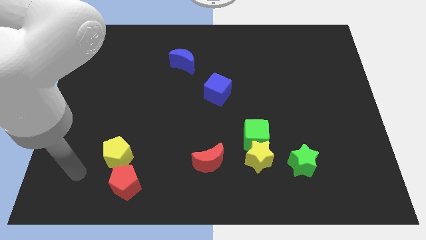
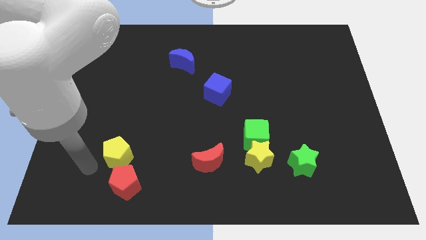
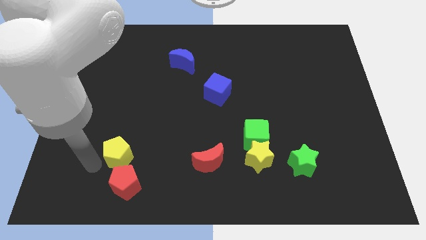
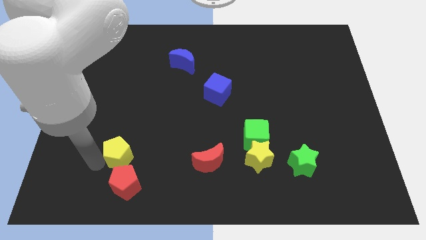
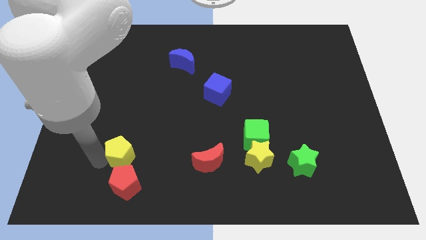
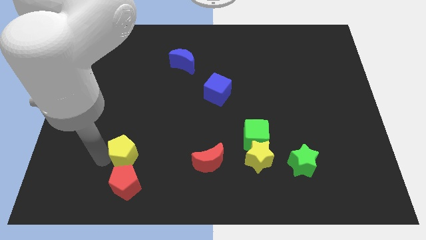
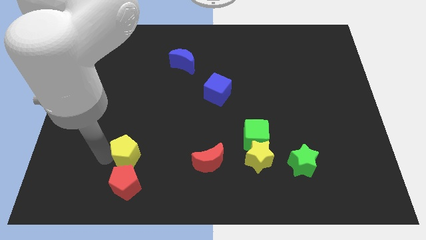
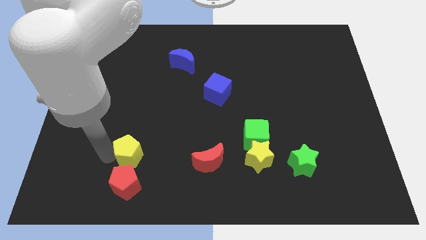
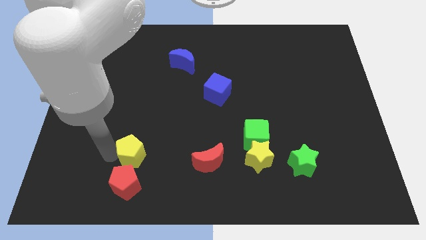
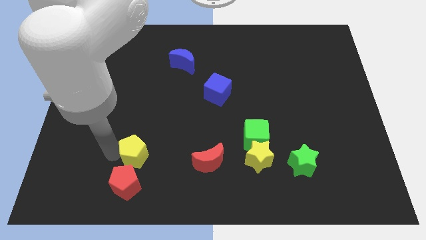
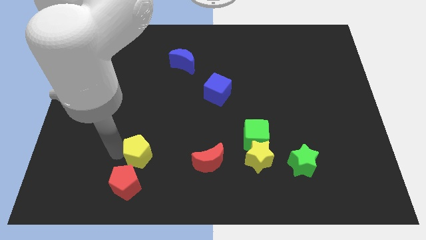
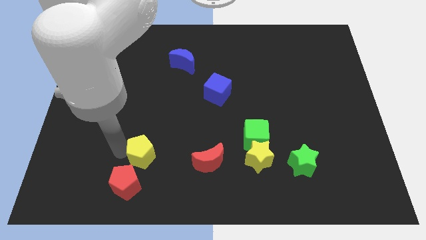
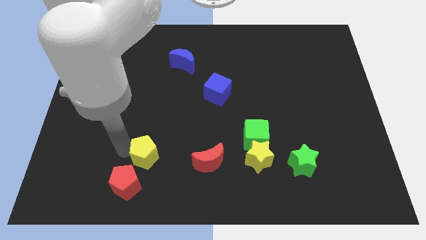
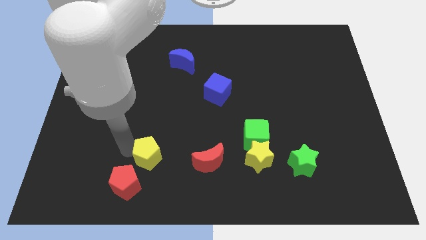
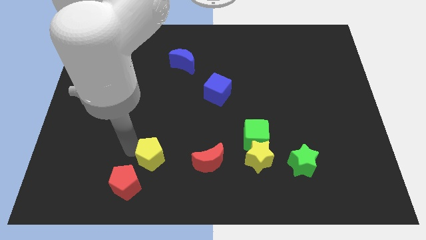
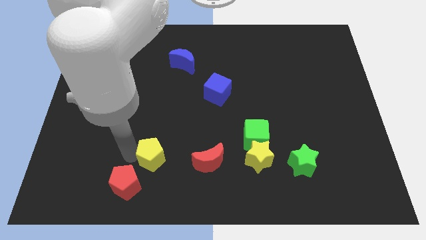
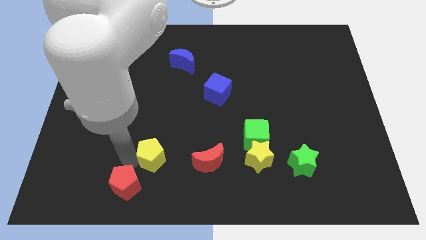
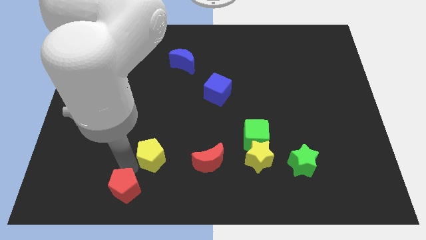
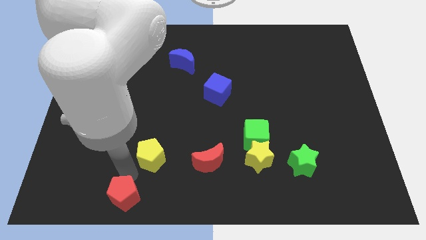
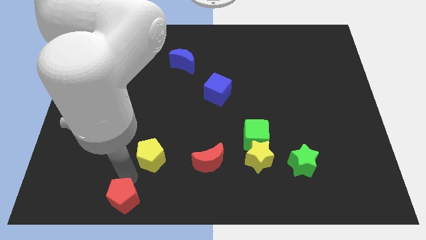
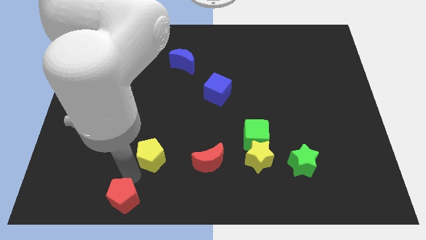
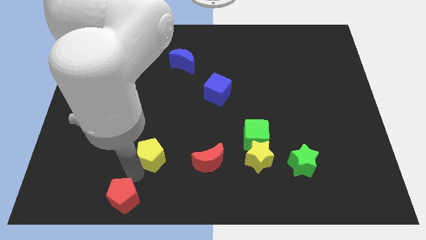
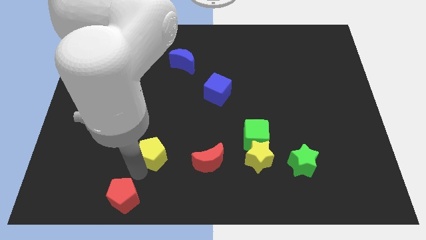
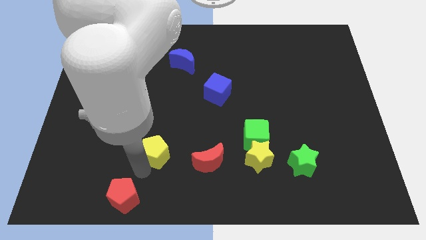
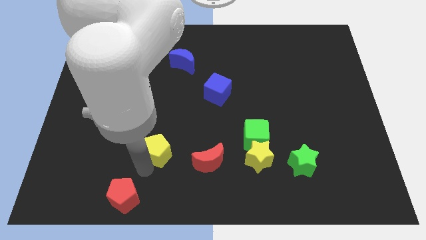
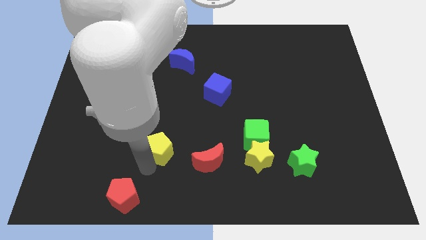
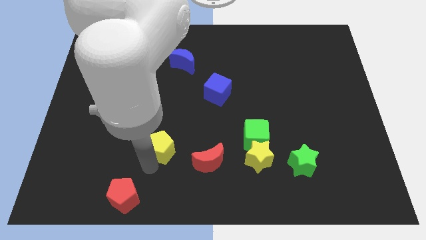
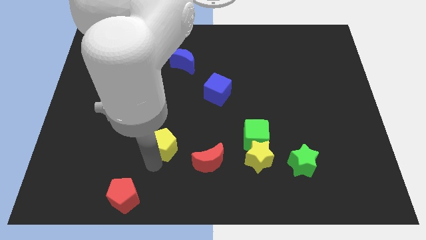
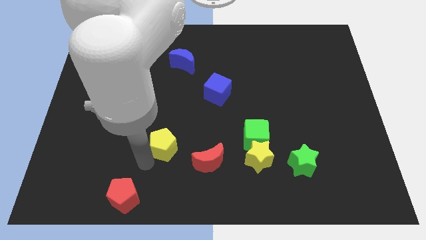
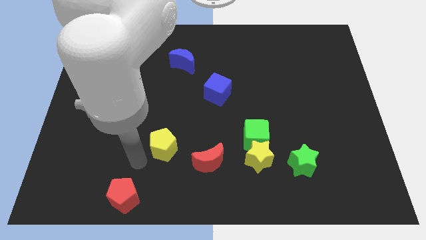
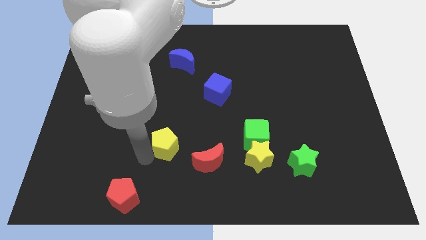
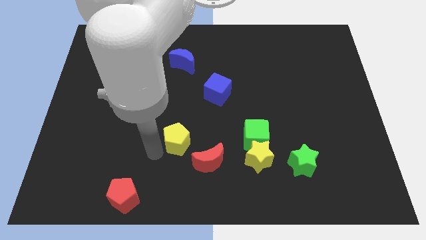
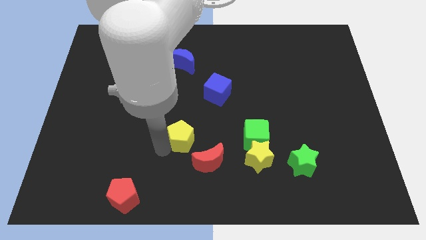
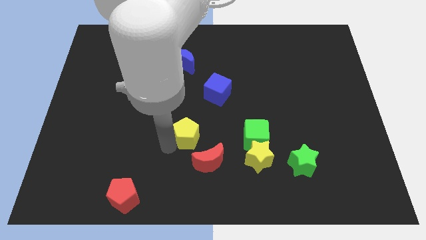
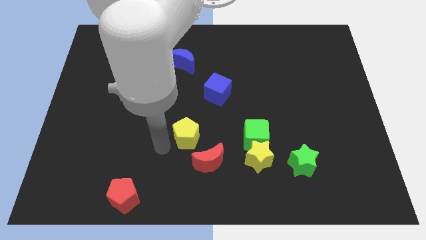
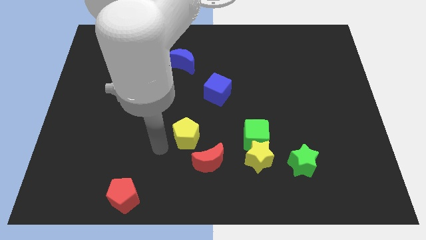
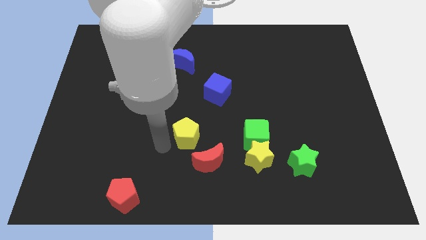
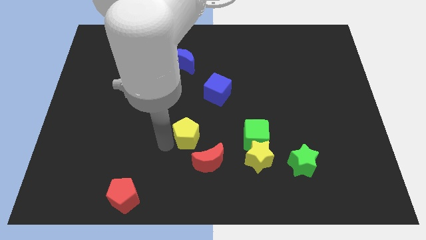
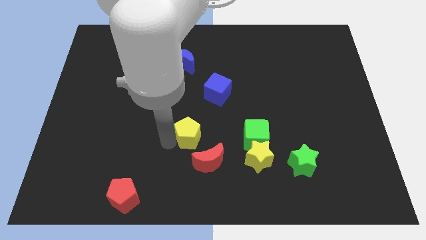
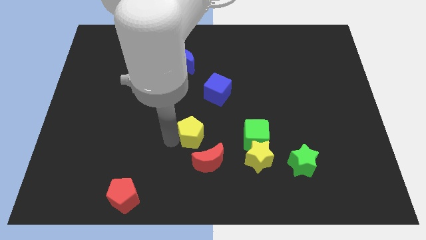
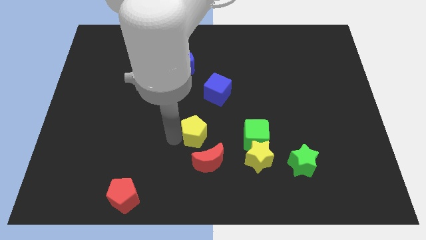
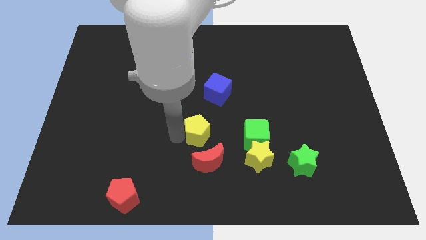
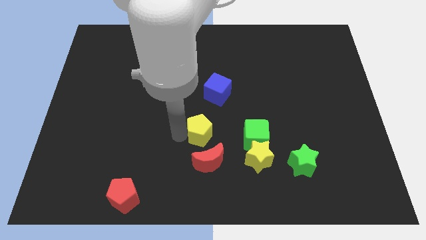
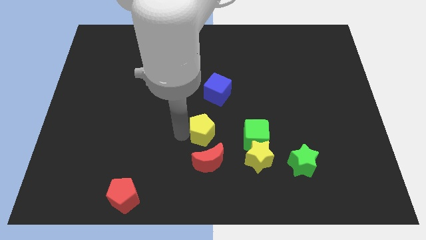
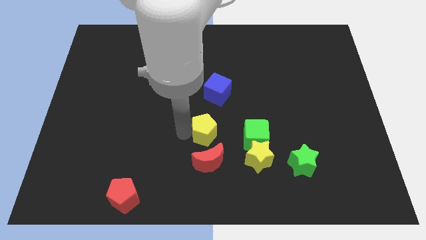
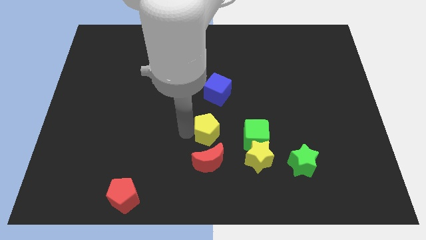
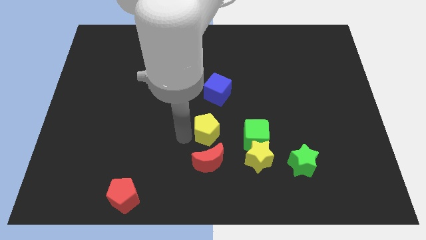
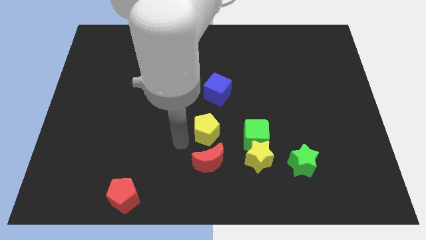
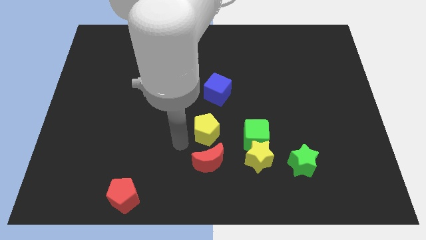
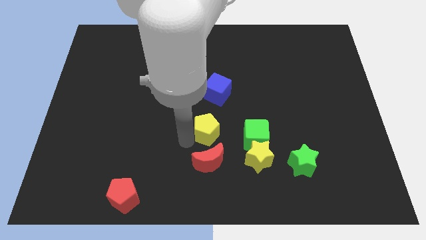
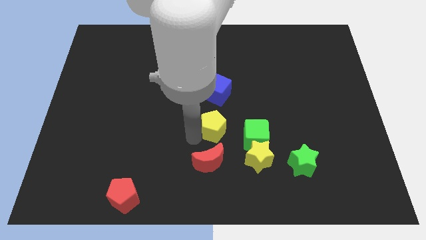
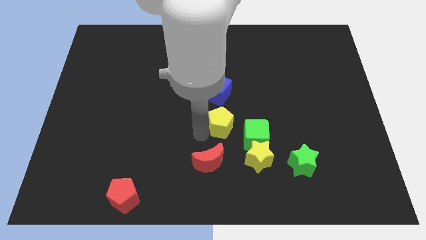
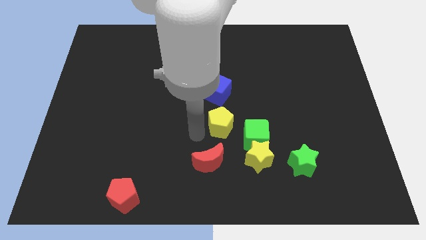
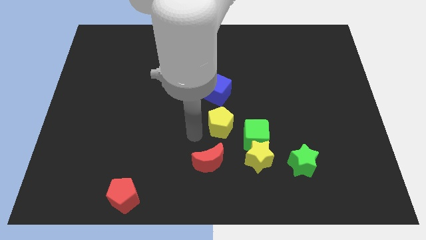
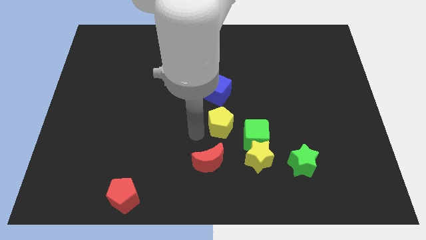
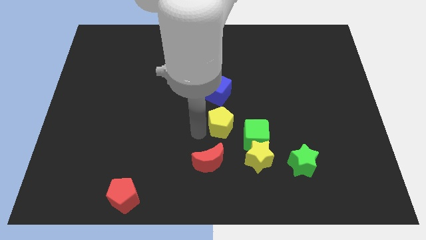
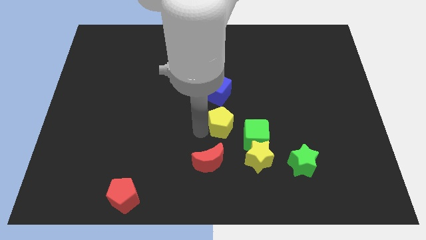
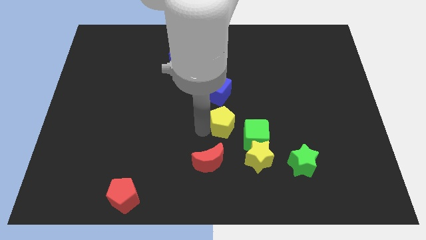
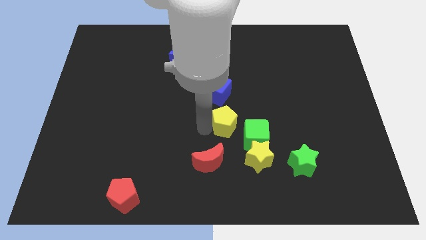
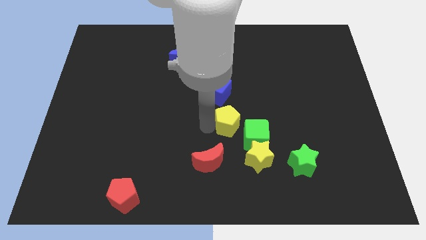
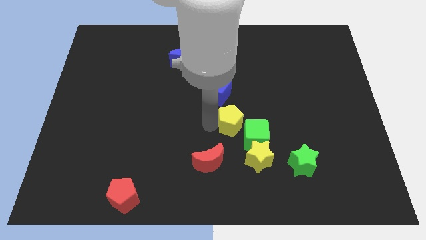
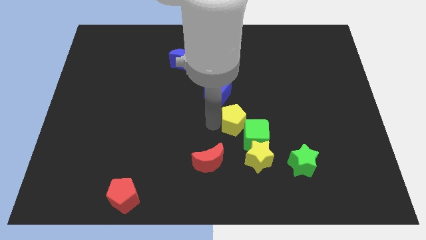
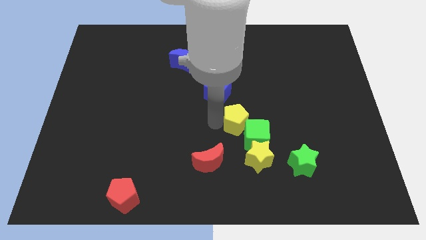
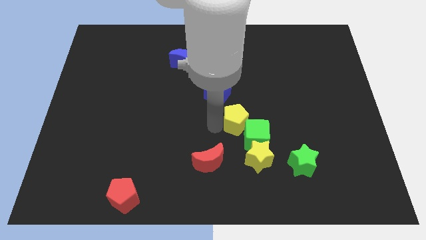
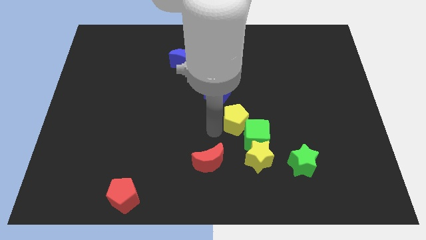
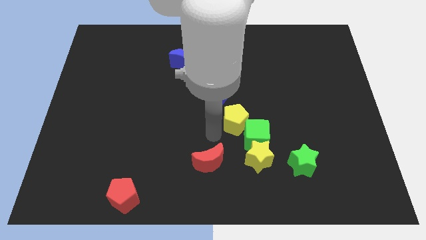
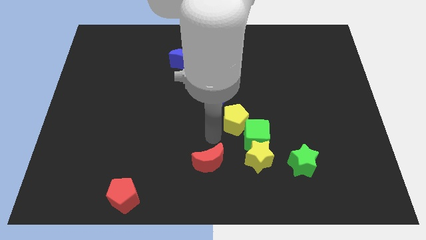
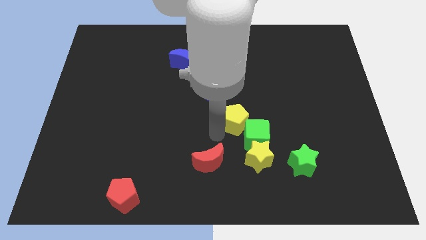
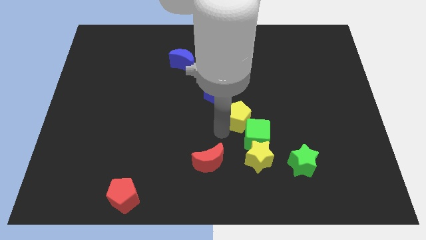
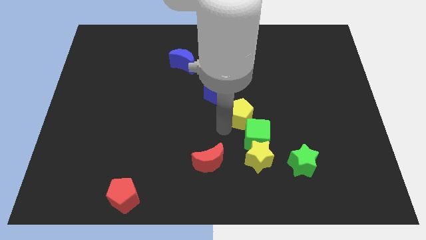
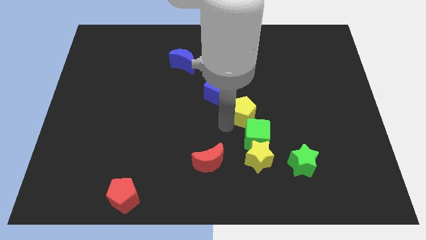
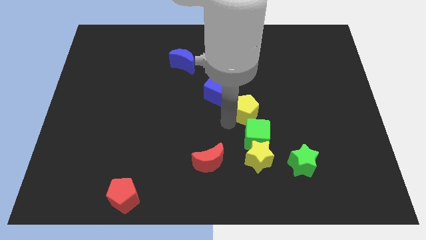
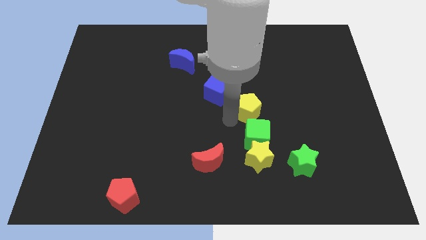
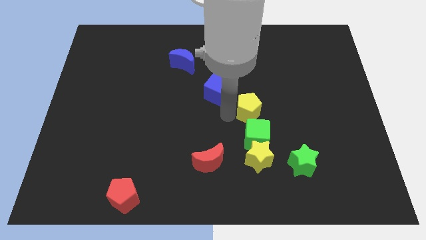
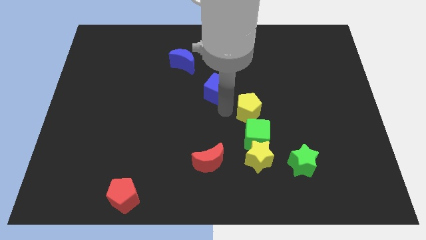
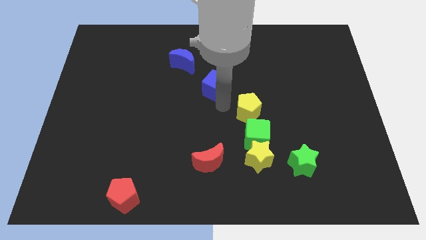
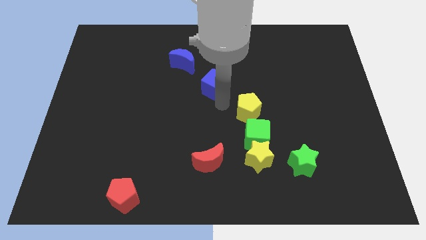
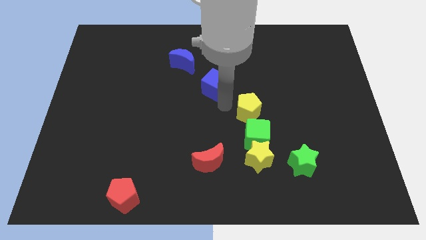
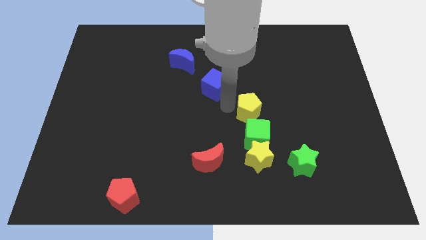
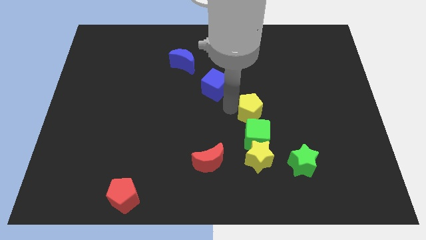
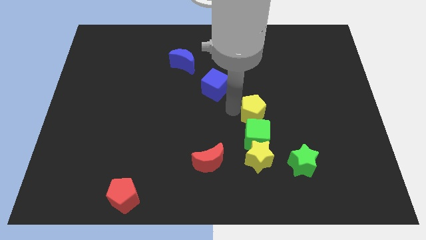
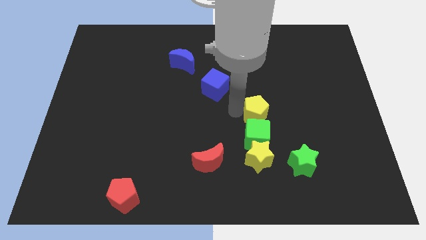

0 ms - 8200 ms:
slide the yellow pentagon to the top right side of the green cube
